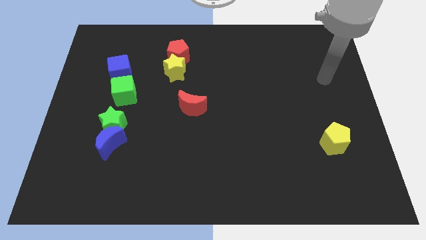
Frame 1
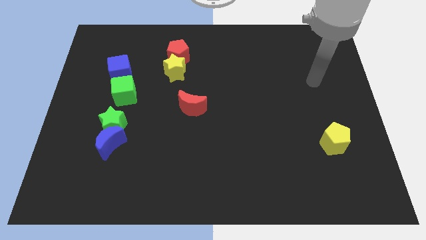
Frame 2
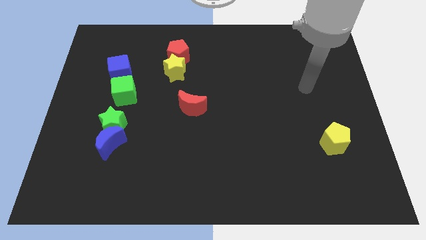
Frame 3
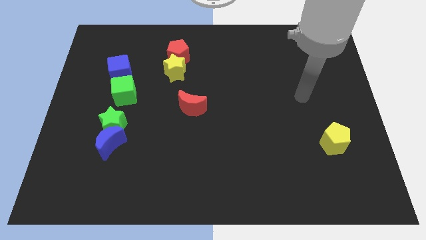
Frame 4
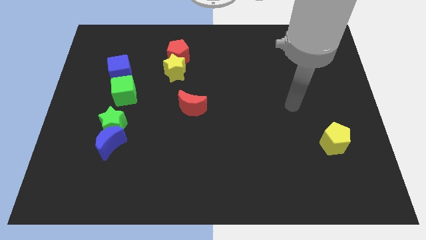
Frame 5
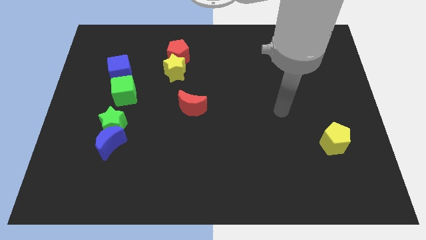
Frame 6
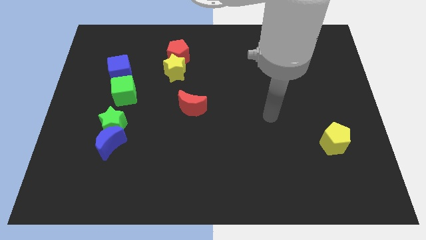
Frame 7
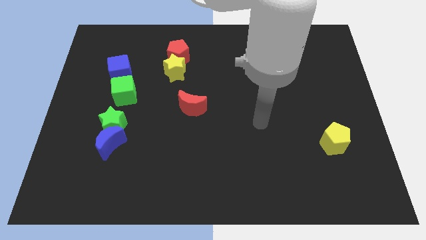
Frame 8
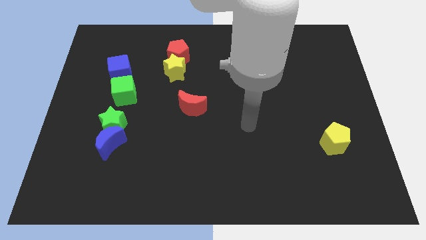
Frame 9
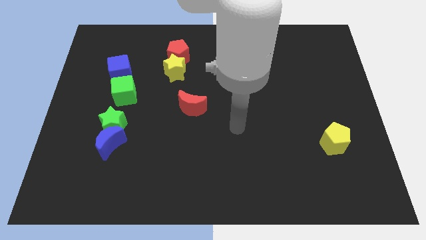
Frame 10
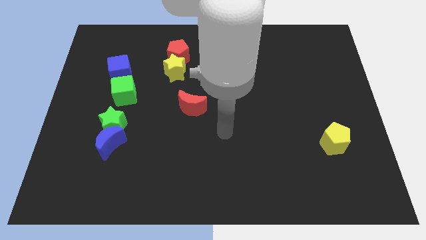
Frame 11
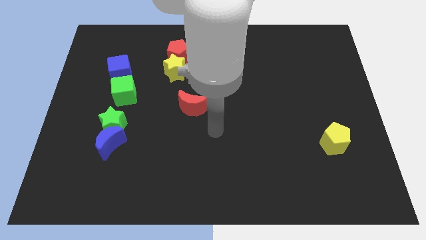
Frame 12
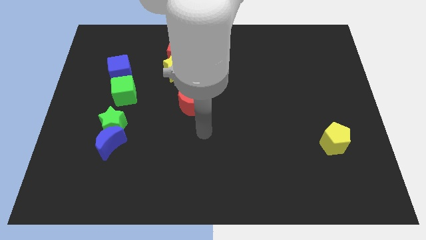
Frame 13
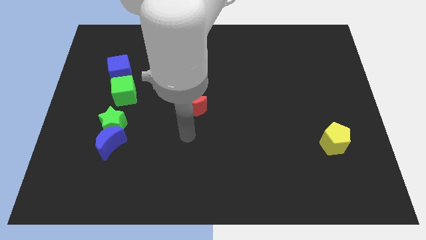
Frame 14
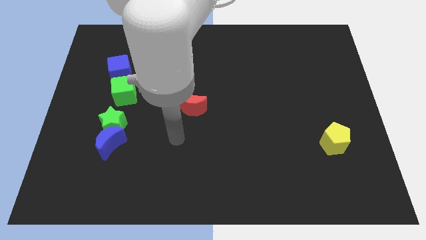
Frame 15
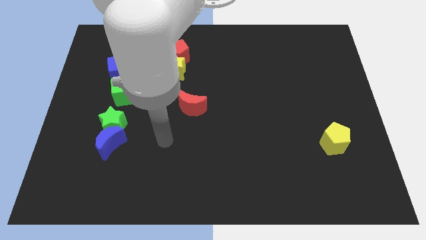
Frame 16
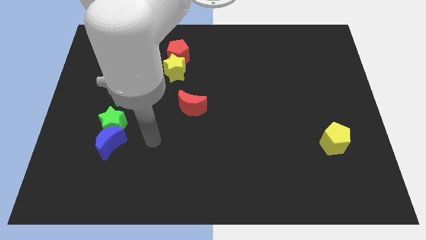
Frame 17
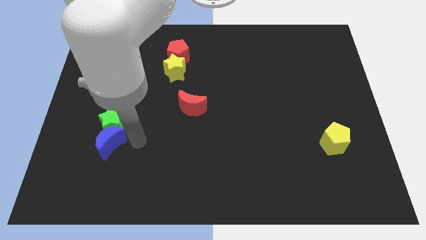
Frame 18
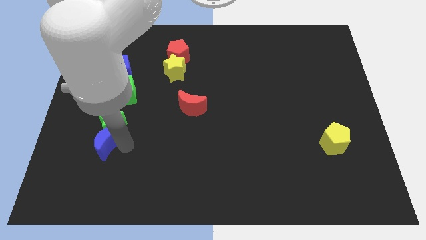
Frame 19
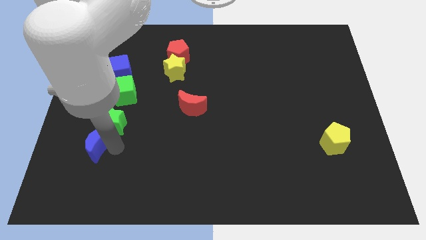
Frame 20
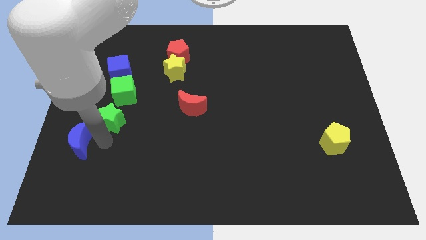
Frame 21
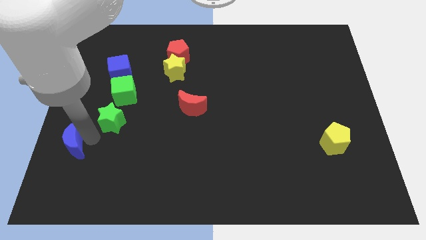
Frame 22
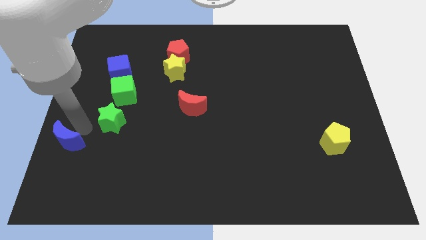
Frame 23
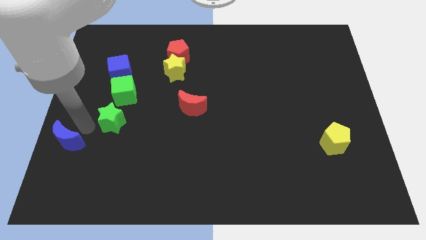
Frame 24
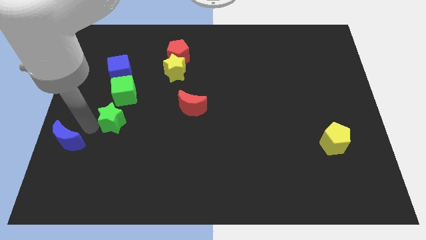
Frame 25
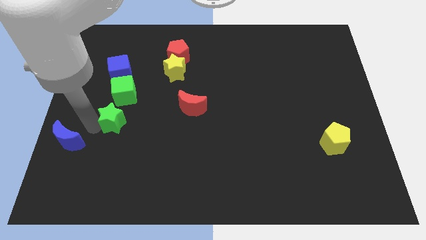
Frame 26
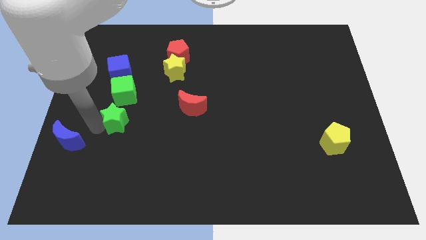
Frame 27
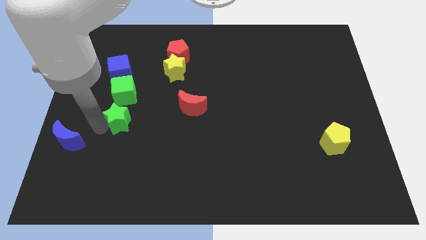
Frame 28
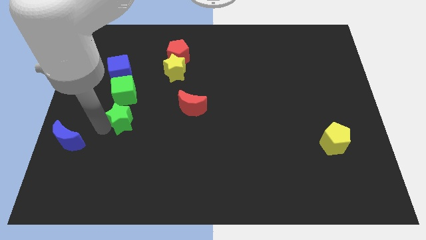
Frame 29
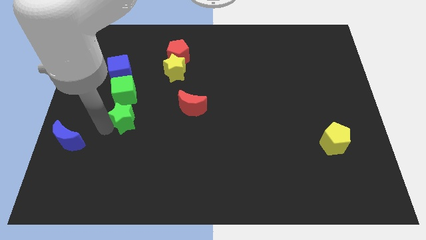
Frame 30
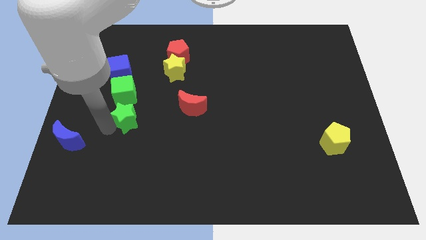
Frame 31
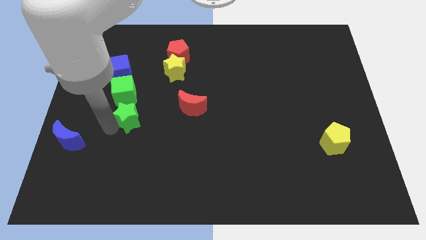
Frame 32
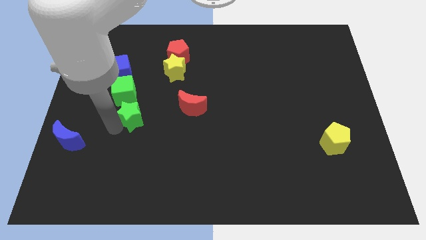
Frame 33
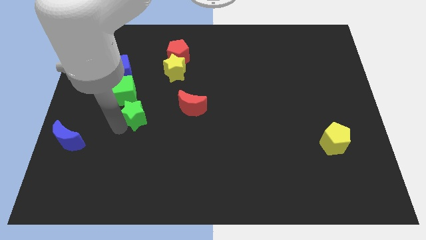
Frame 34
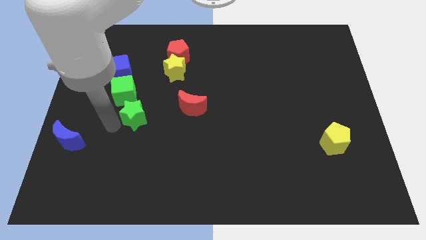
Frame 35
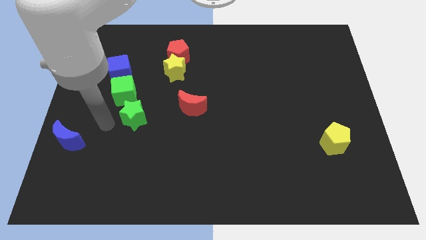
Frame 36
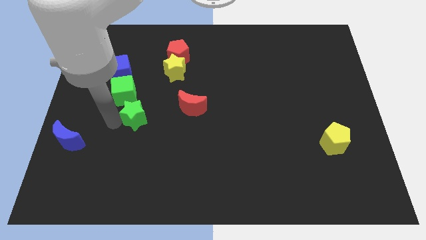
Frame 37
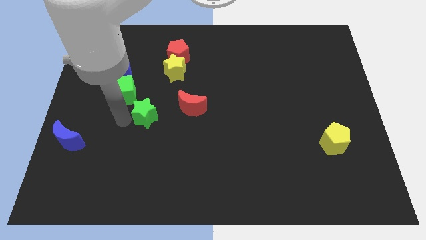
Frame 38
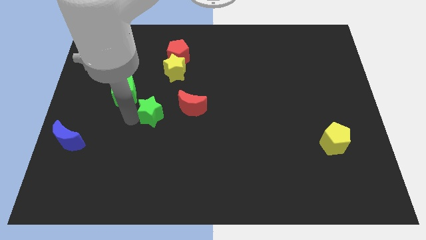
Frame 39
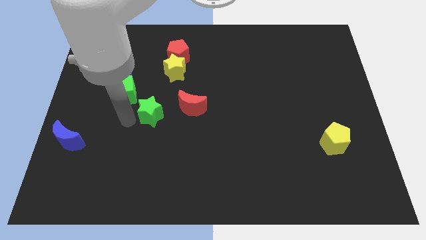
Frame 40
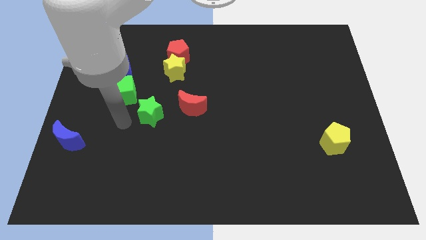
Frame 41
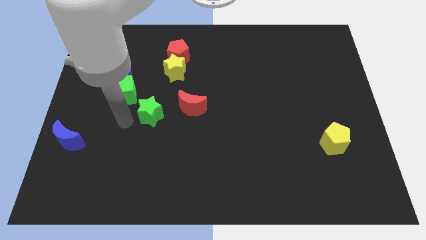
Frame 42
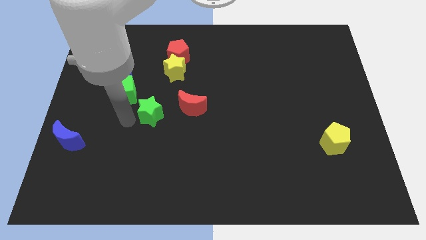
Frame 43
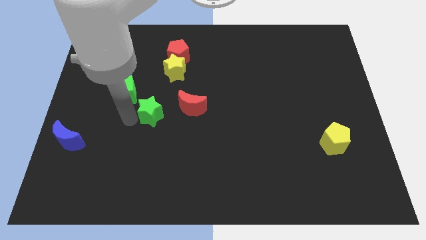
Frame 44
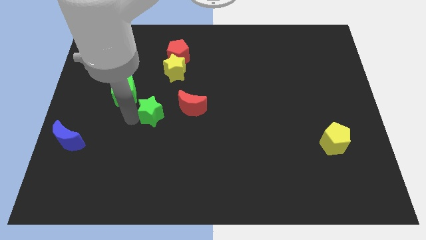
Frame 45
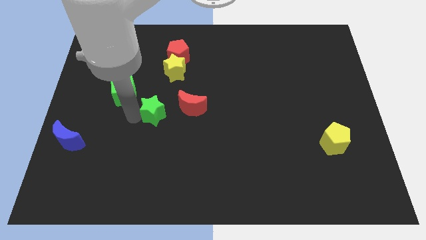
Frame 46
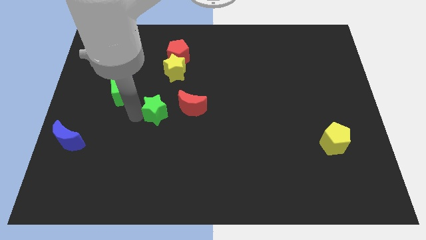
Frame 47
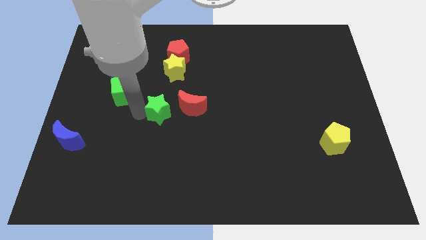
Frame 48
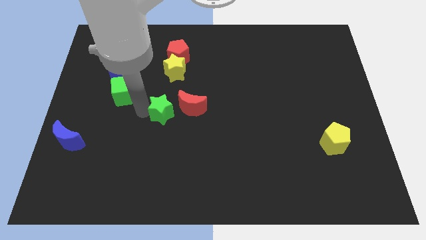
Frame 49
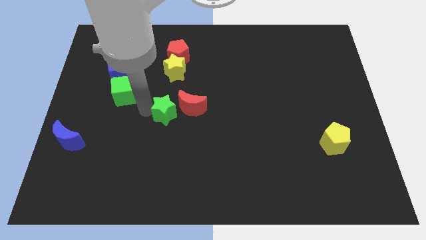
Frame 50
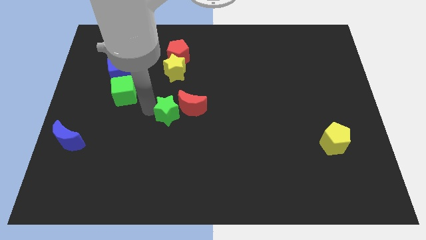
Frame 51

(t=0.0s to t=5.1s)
move the green star towards the red moon

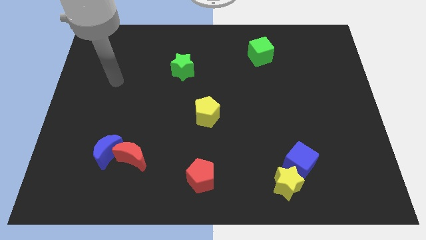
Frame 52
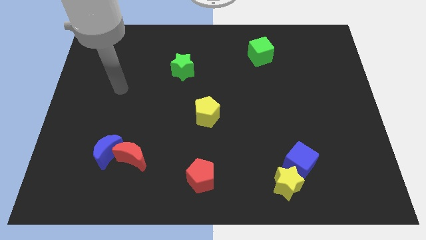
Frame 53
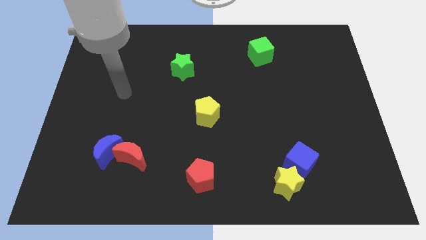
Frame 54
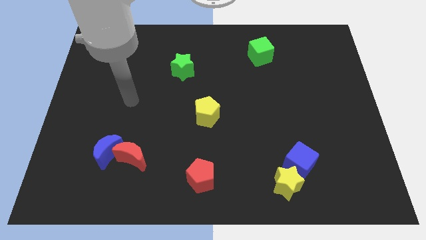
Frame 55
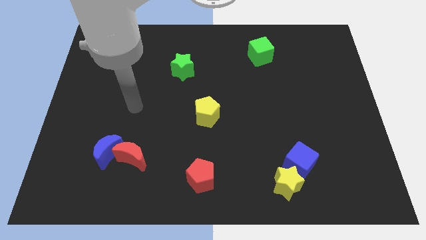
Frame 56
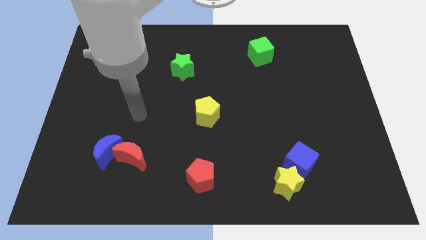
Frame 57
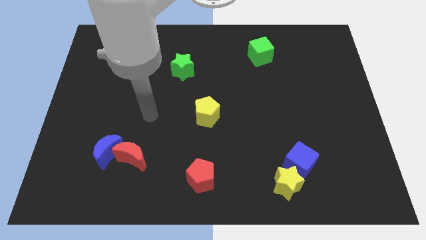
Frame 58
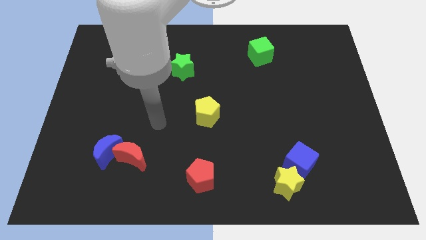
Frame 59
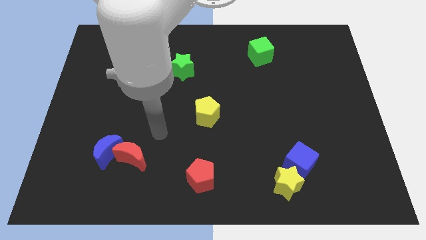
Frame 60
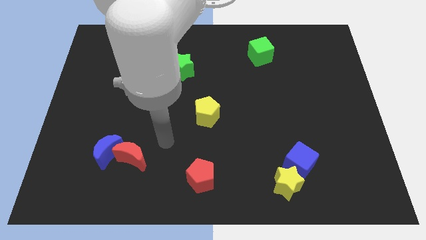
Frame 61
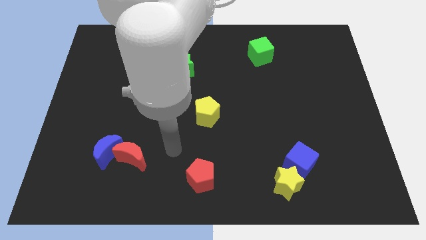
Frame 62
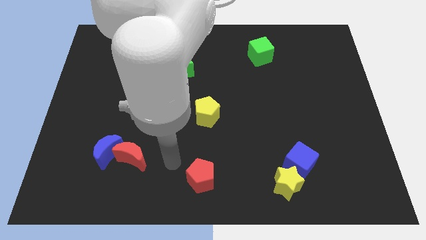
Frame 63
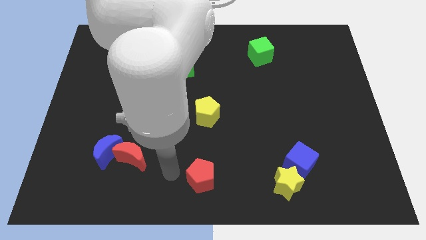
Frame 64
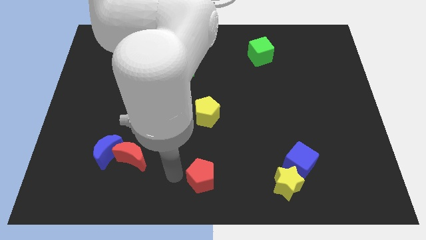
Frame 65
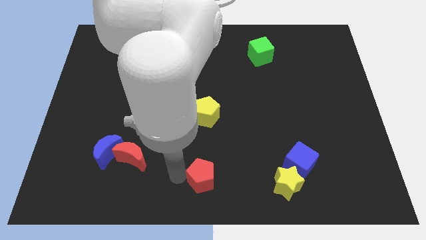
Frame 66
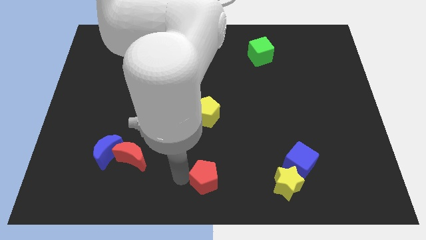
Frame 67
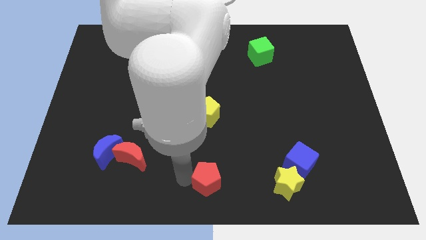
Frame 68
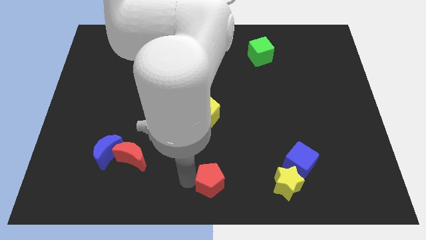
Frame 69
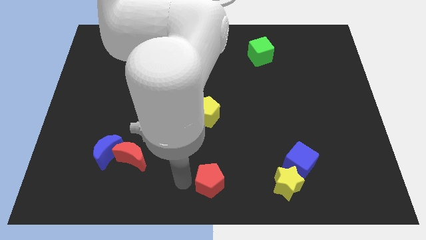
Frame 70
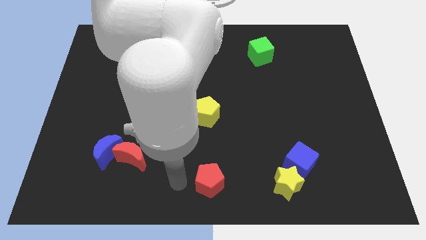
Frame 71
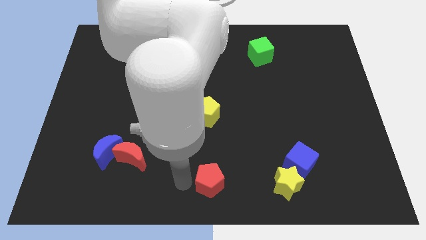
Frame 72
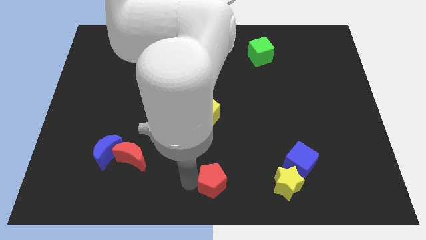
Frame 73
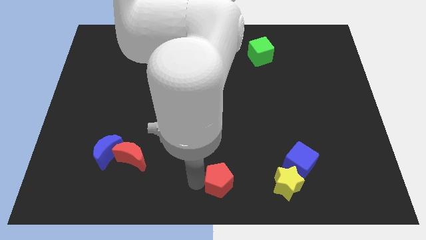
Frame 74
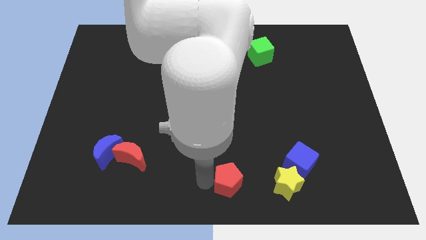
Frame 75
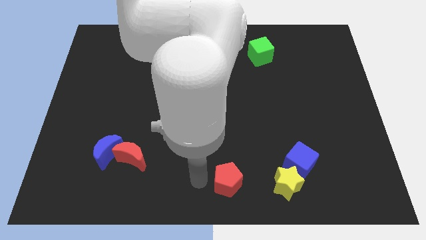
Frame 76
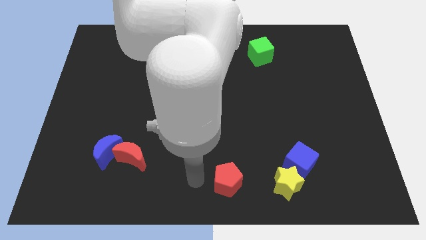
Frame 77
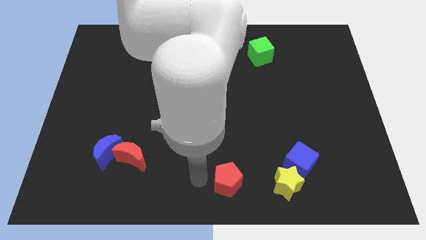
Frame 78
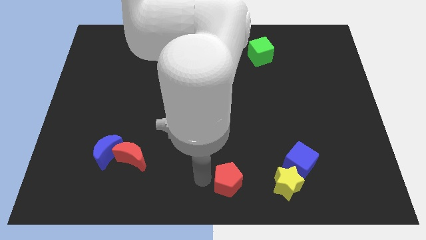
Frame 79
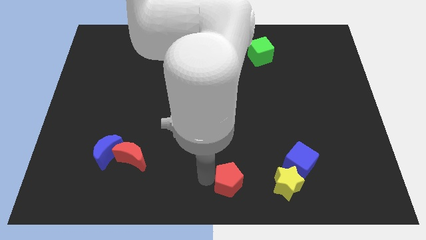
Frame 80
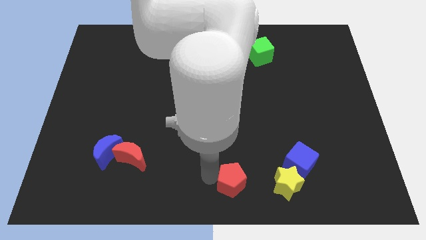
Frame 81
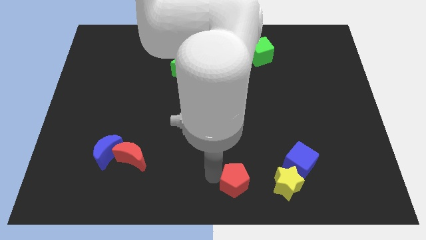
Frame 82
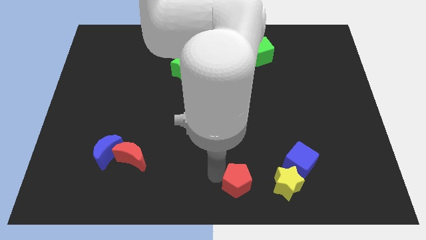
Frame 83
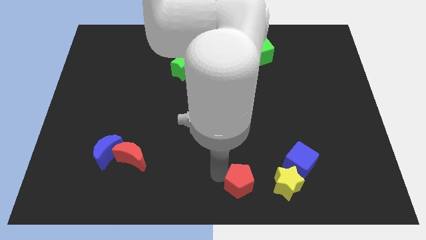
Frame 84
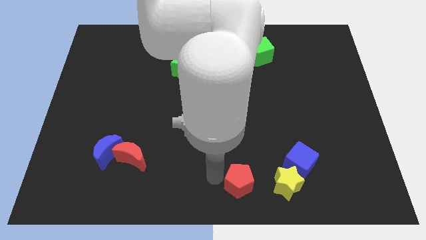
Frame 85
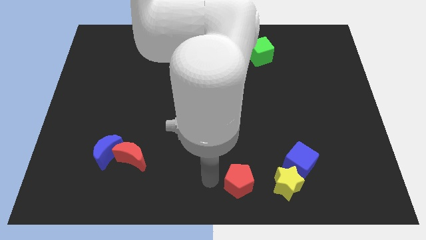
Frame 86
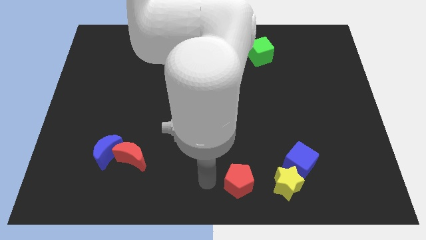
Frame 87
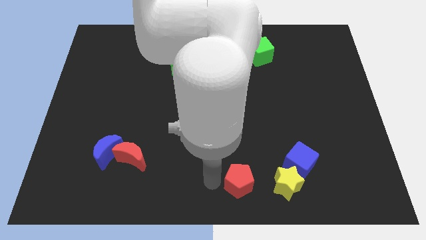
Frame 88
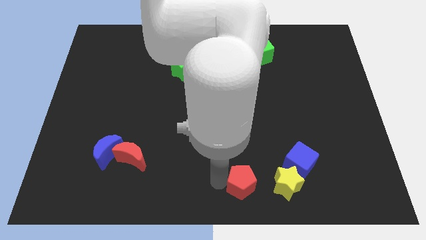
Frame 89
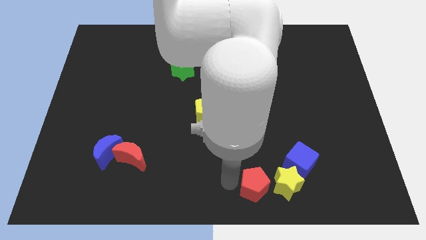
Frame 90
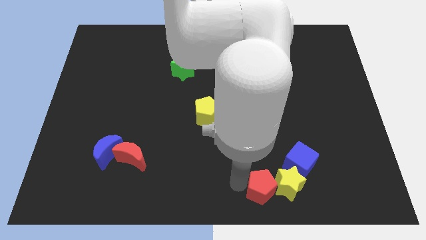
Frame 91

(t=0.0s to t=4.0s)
push the red pentagon towards the yellow star
